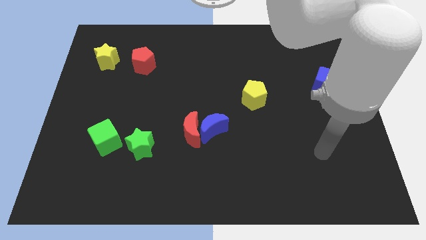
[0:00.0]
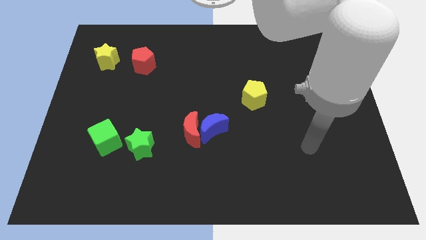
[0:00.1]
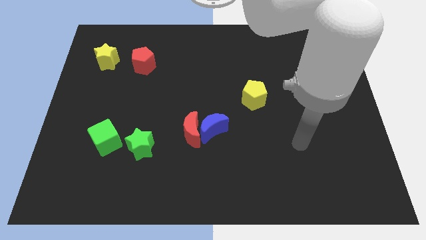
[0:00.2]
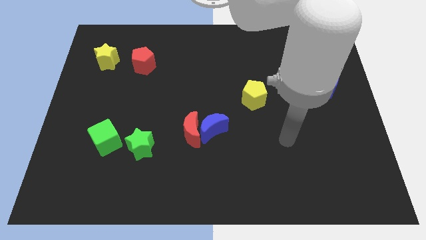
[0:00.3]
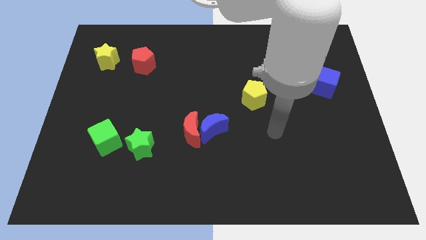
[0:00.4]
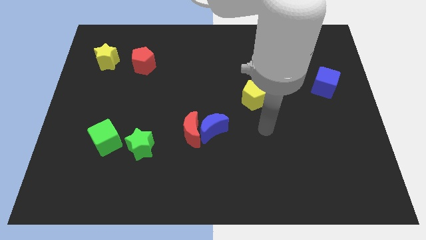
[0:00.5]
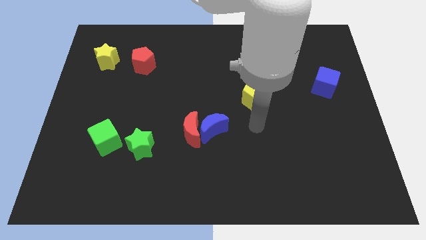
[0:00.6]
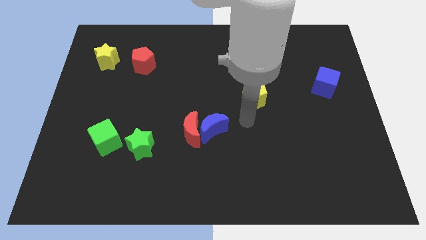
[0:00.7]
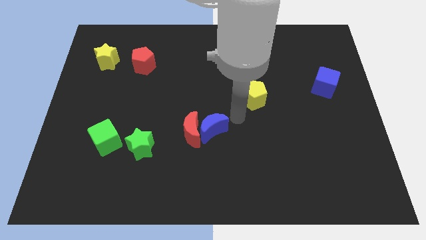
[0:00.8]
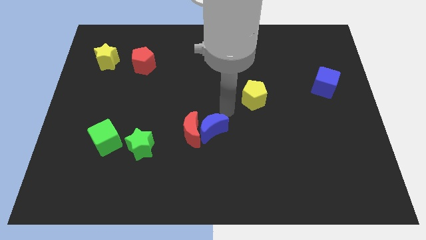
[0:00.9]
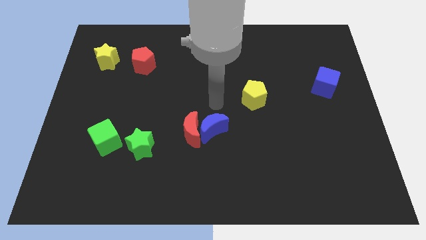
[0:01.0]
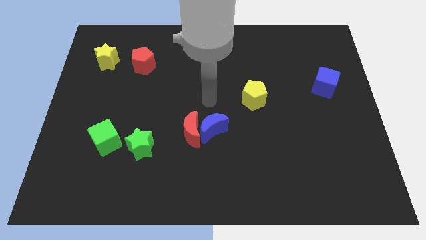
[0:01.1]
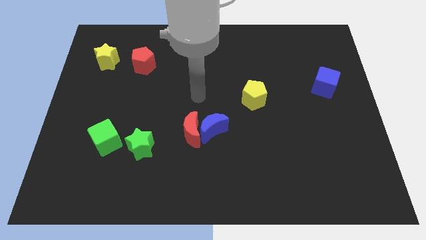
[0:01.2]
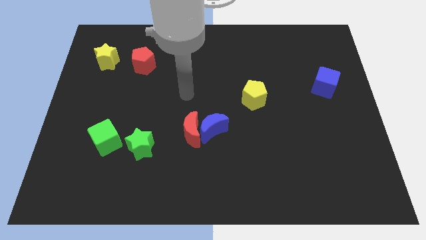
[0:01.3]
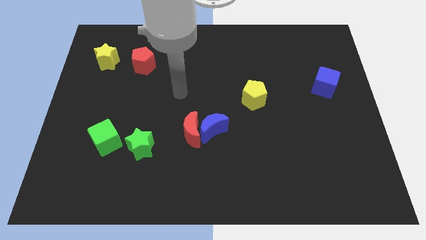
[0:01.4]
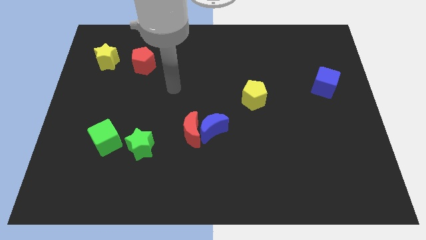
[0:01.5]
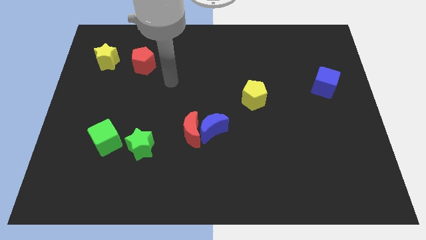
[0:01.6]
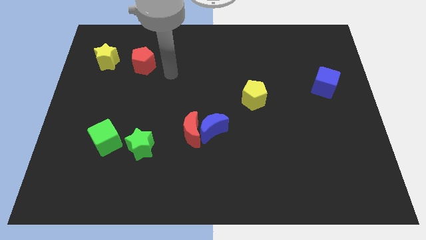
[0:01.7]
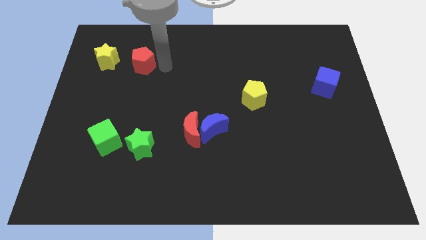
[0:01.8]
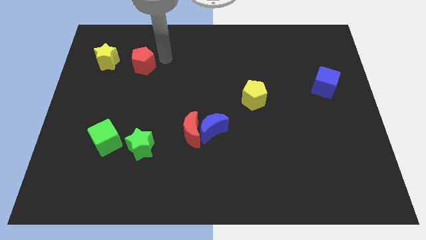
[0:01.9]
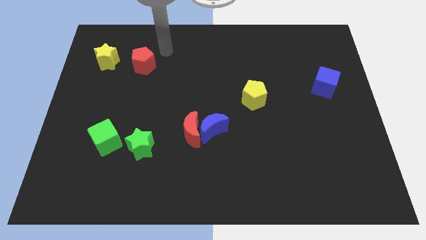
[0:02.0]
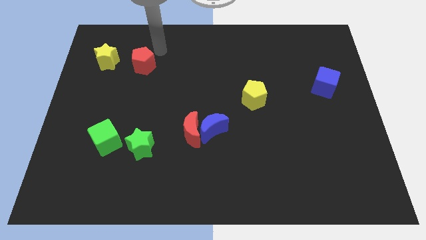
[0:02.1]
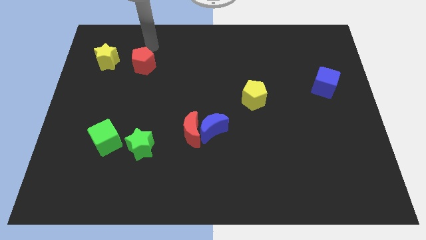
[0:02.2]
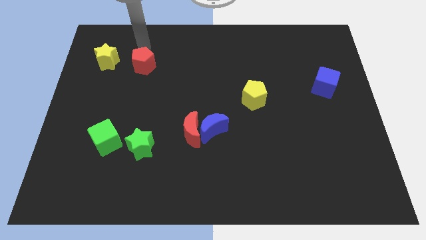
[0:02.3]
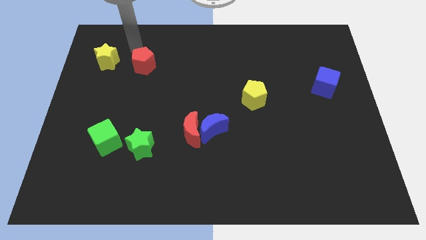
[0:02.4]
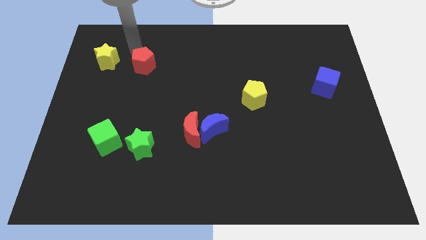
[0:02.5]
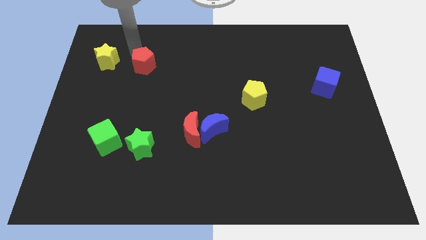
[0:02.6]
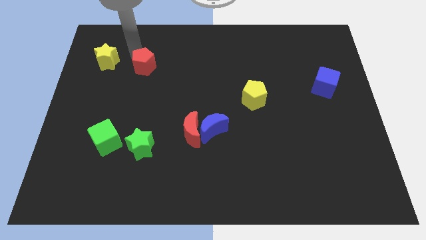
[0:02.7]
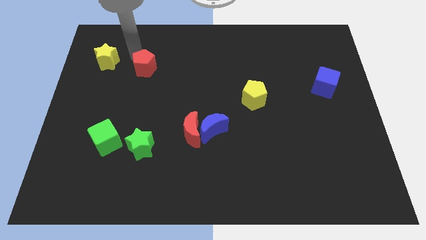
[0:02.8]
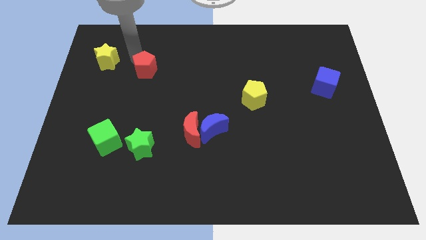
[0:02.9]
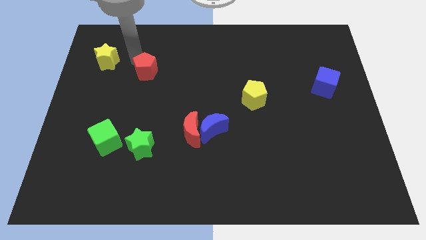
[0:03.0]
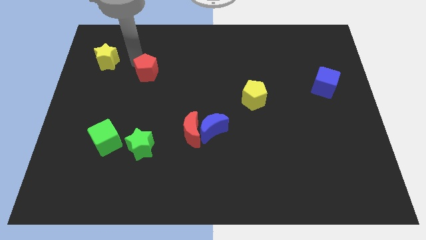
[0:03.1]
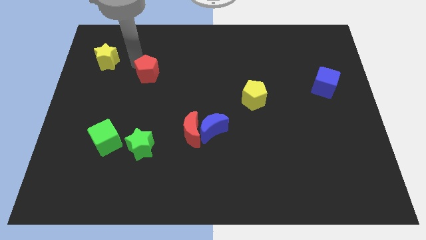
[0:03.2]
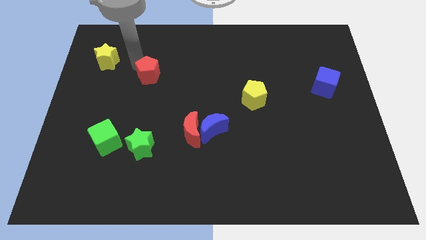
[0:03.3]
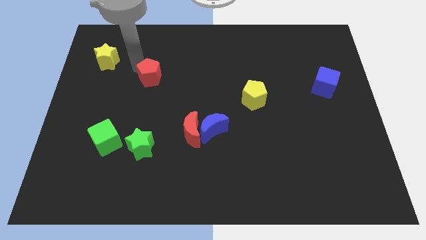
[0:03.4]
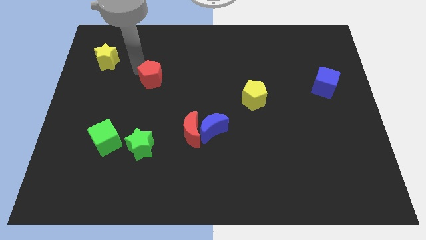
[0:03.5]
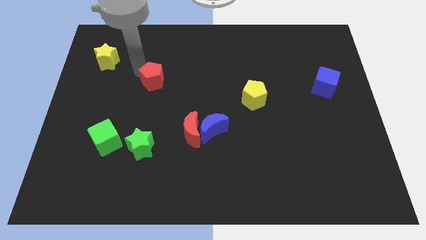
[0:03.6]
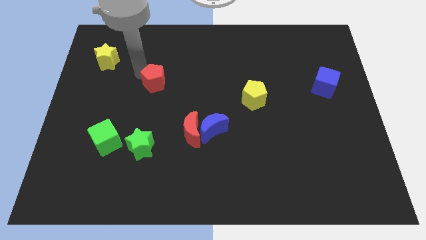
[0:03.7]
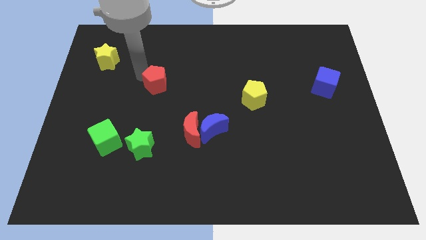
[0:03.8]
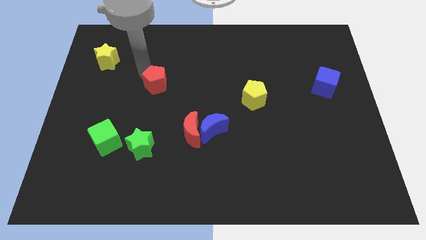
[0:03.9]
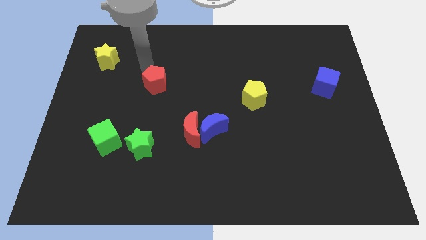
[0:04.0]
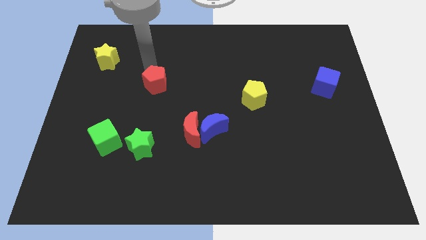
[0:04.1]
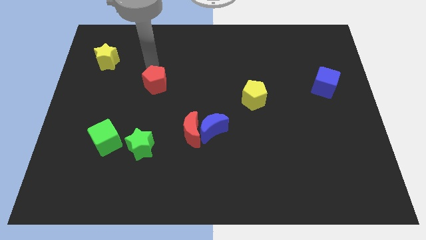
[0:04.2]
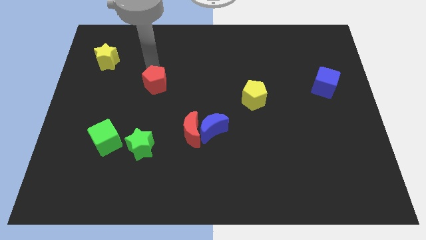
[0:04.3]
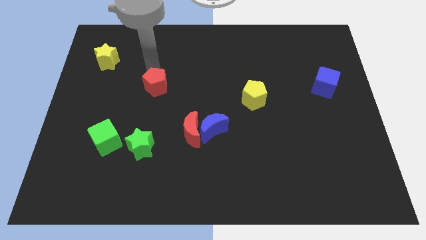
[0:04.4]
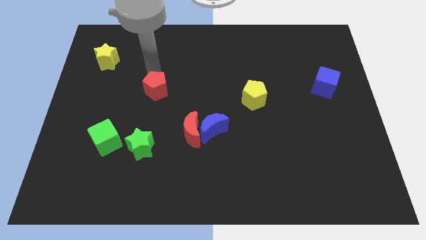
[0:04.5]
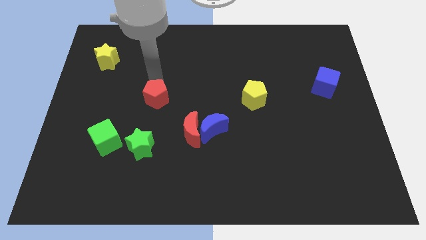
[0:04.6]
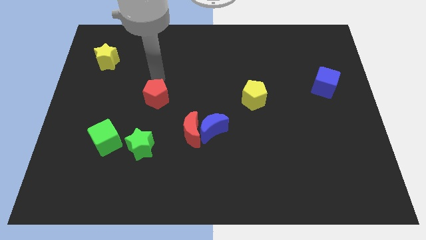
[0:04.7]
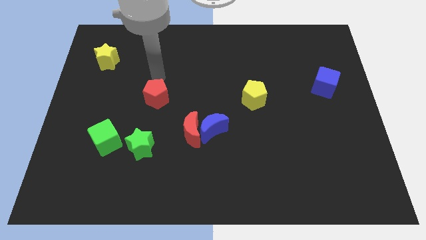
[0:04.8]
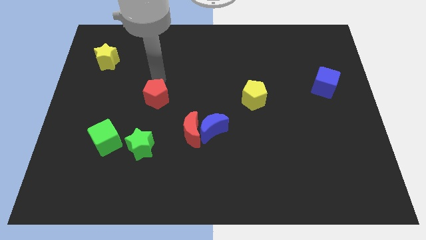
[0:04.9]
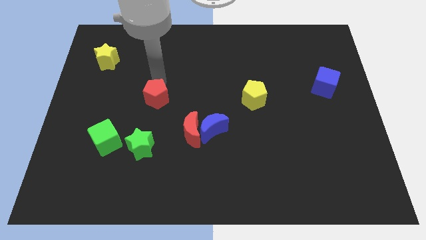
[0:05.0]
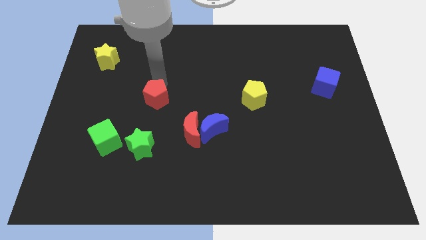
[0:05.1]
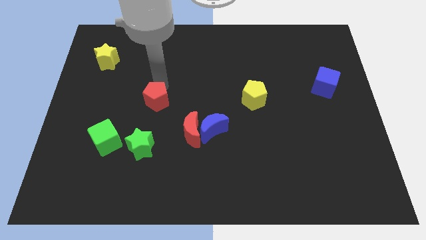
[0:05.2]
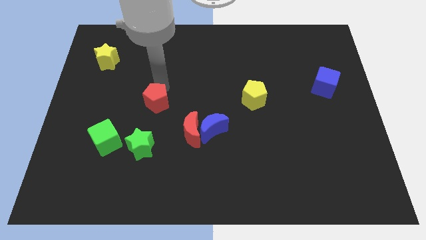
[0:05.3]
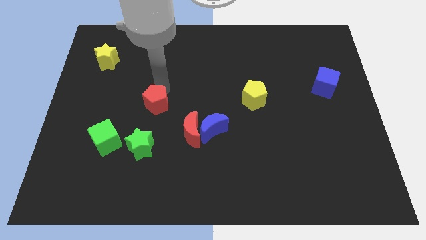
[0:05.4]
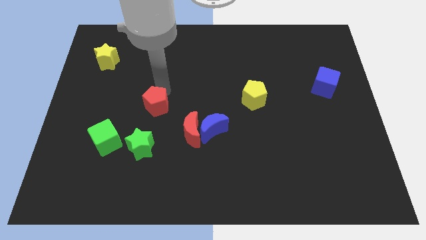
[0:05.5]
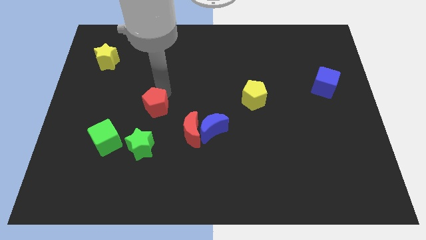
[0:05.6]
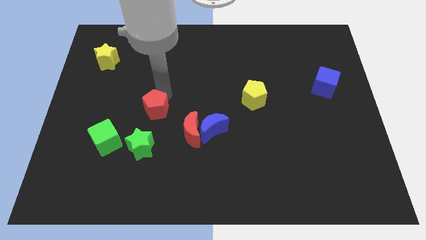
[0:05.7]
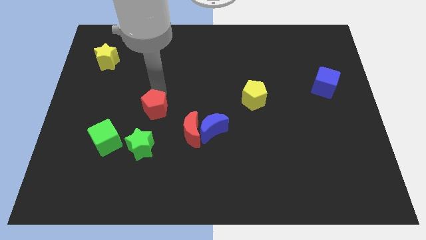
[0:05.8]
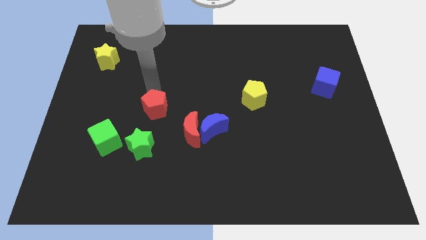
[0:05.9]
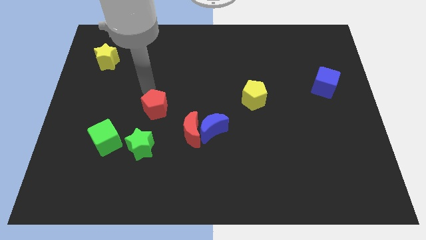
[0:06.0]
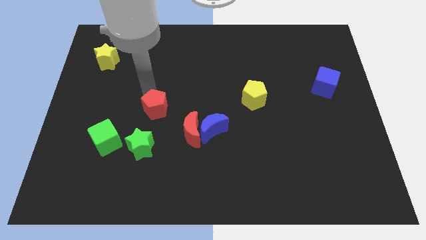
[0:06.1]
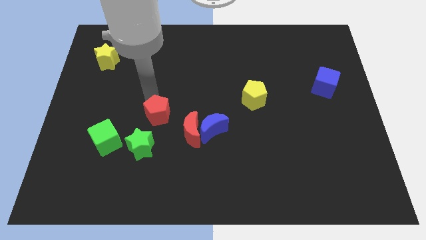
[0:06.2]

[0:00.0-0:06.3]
slide the red pentagon just left of the blue moon

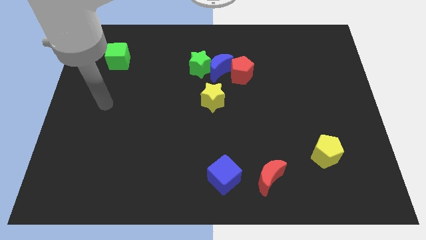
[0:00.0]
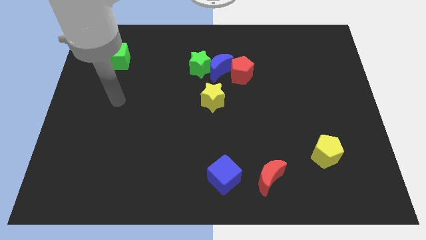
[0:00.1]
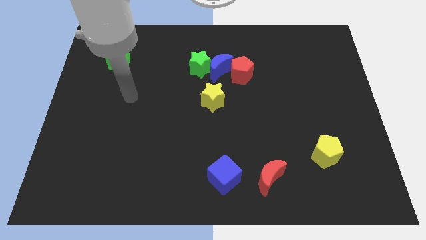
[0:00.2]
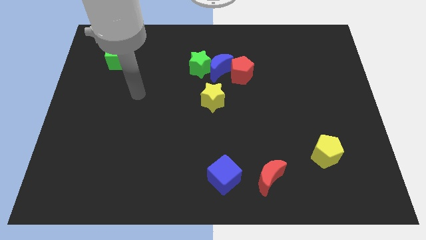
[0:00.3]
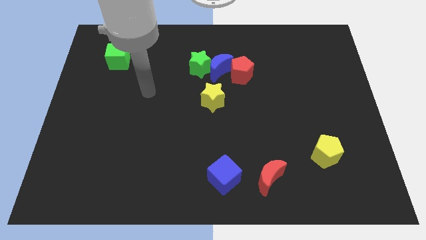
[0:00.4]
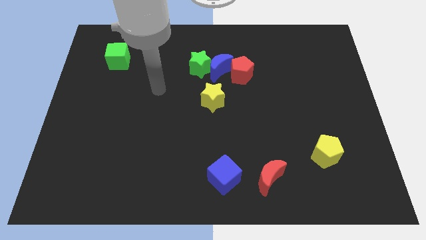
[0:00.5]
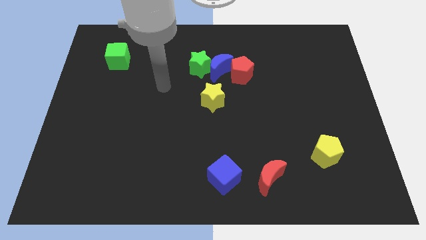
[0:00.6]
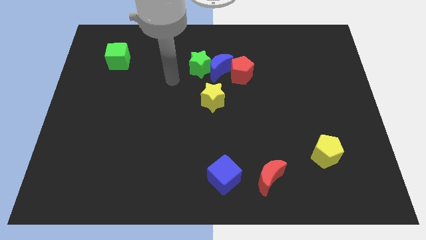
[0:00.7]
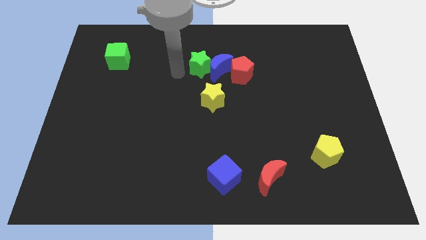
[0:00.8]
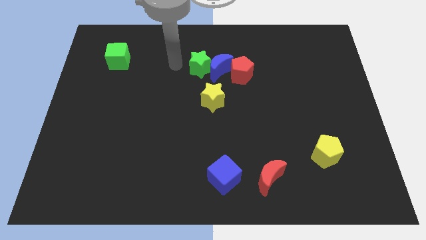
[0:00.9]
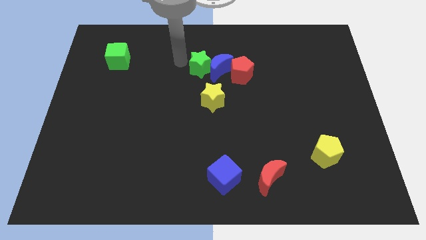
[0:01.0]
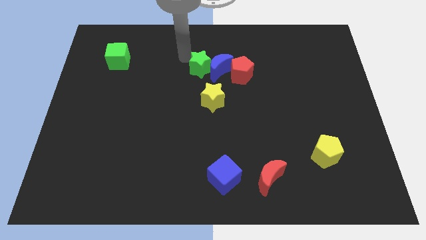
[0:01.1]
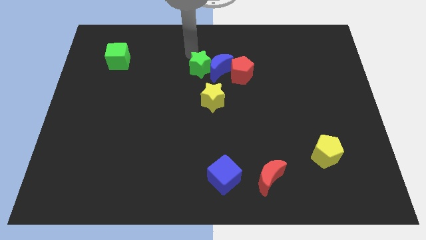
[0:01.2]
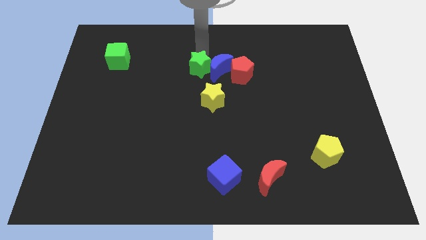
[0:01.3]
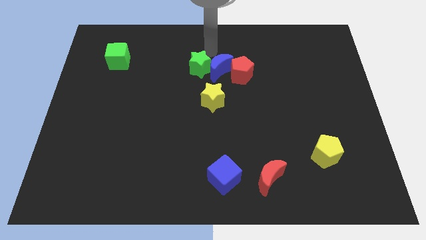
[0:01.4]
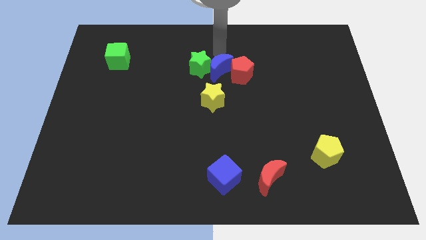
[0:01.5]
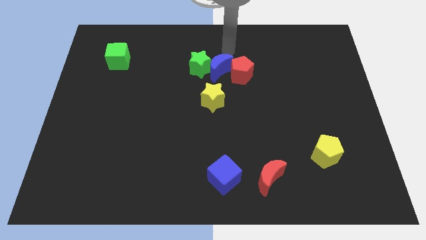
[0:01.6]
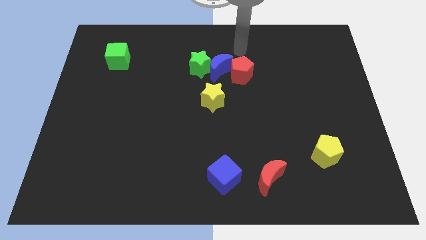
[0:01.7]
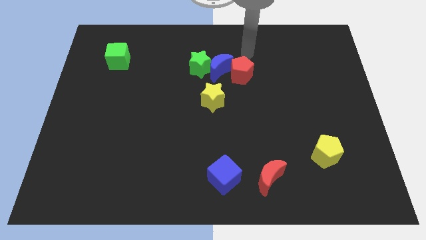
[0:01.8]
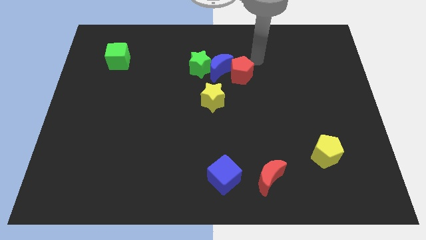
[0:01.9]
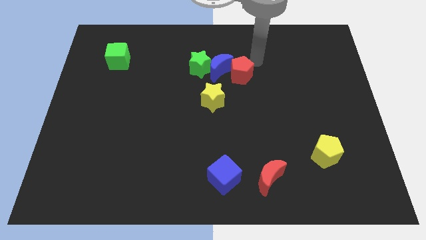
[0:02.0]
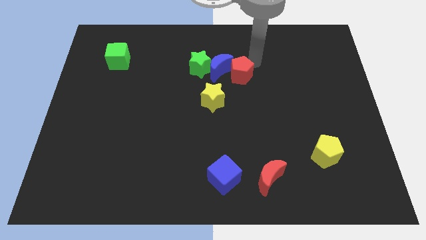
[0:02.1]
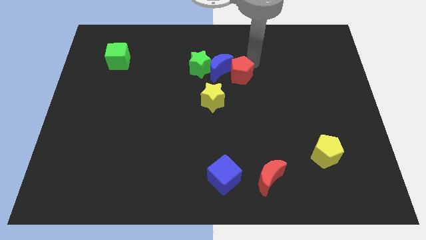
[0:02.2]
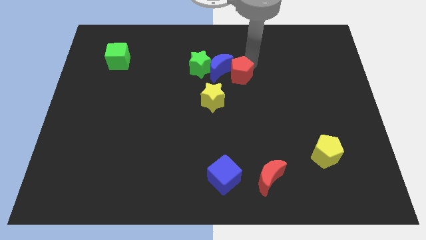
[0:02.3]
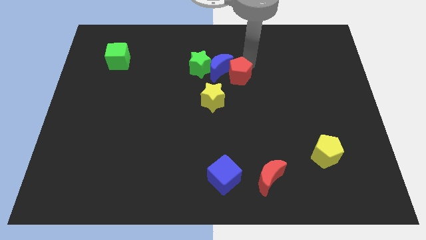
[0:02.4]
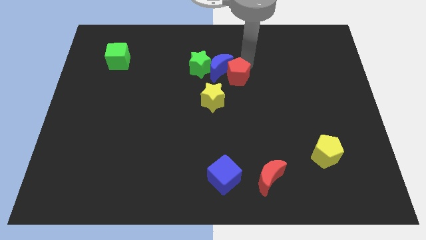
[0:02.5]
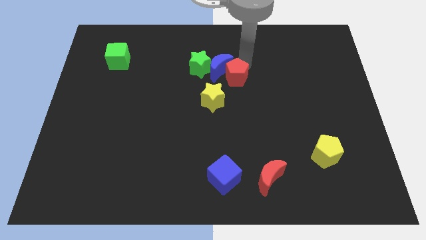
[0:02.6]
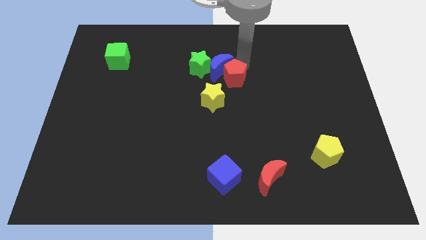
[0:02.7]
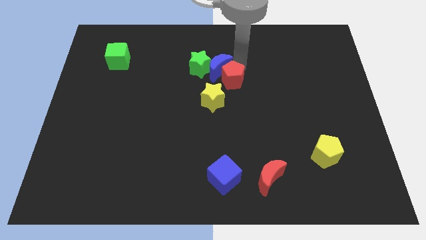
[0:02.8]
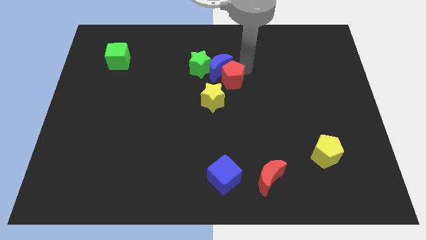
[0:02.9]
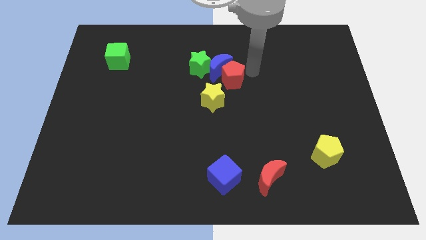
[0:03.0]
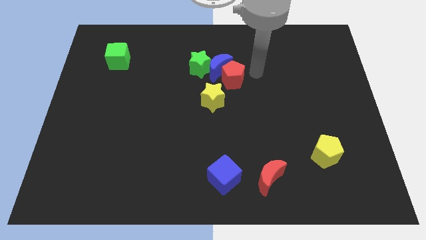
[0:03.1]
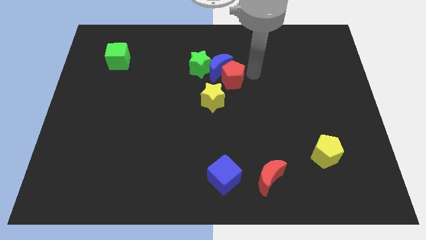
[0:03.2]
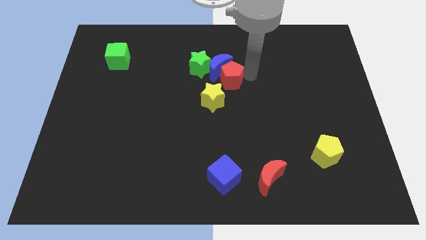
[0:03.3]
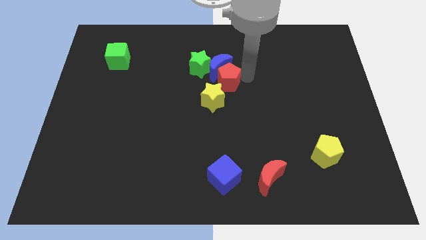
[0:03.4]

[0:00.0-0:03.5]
push the red pentagon diagonally down and to the left of the blue moon
